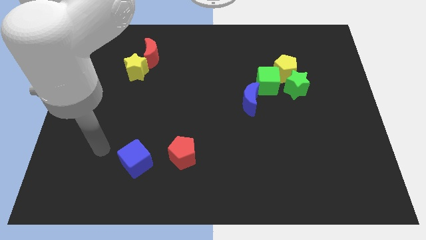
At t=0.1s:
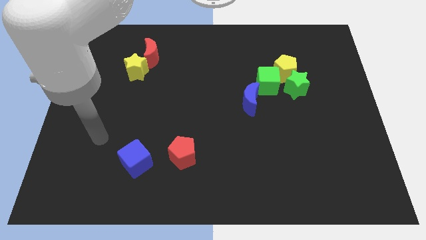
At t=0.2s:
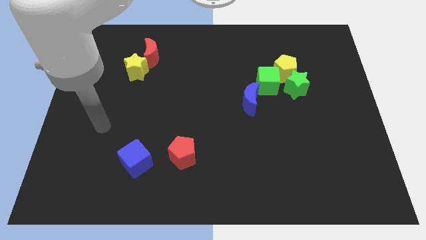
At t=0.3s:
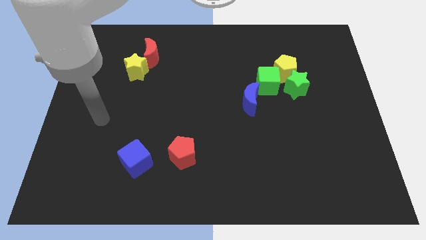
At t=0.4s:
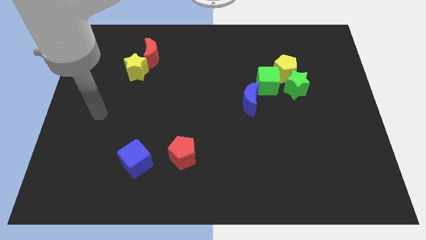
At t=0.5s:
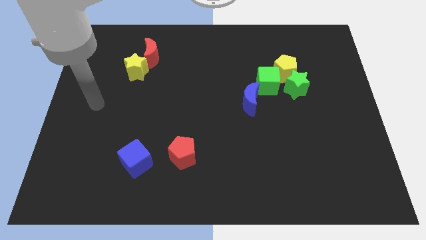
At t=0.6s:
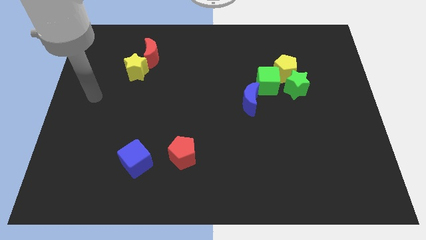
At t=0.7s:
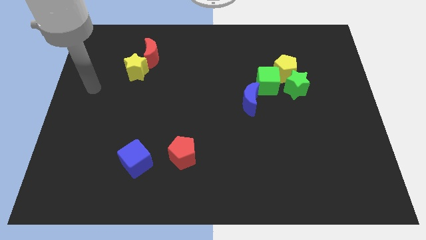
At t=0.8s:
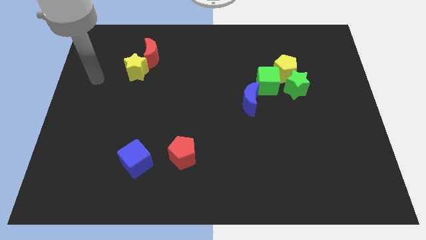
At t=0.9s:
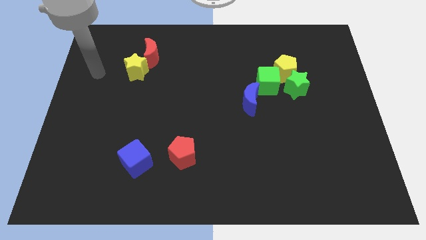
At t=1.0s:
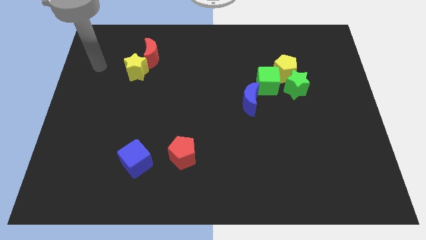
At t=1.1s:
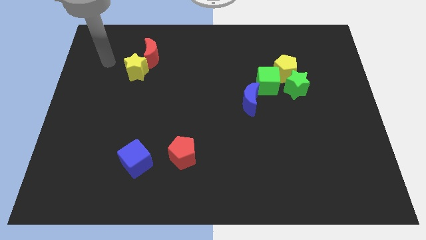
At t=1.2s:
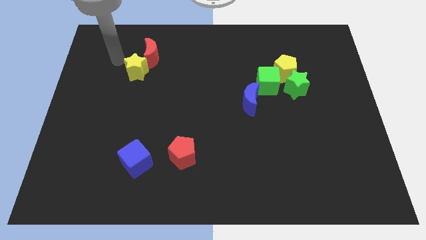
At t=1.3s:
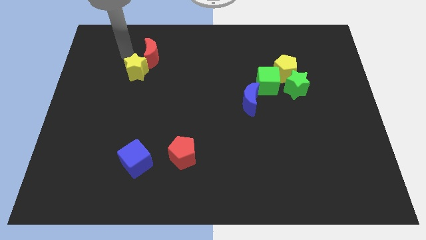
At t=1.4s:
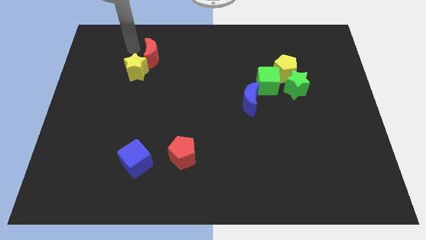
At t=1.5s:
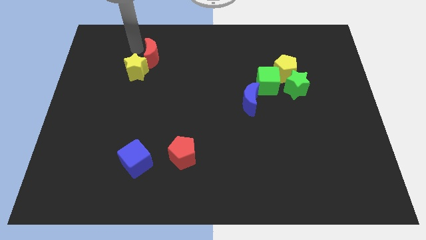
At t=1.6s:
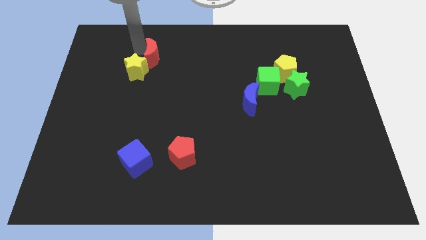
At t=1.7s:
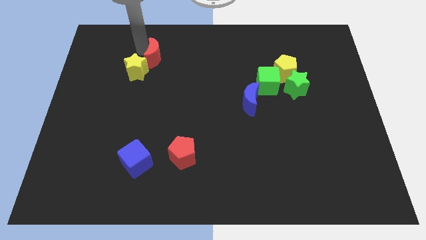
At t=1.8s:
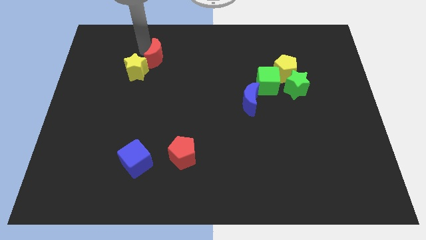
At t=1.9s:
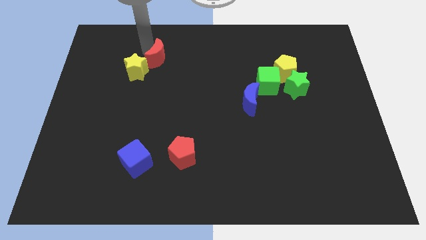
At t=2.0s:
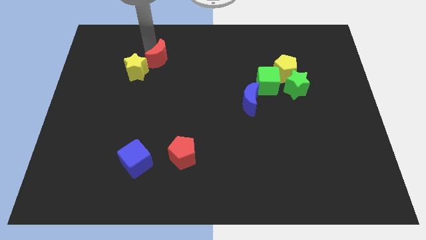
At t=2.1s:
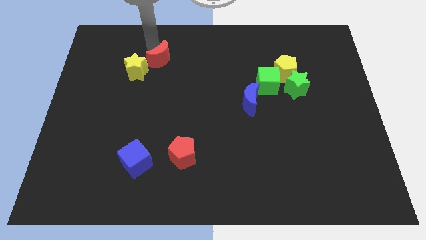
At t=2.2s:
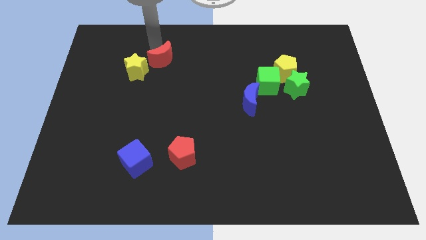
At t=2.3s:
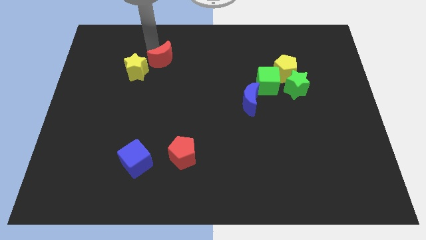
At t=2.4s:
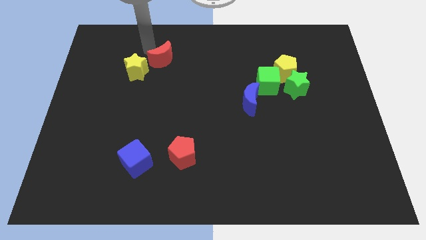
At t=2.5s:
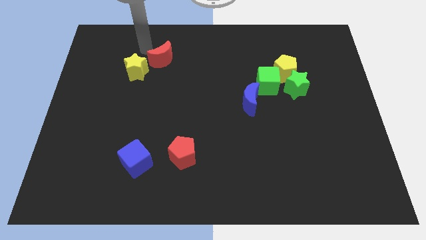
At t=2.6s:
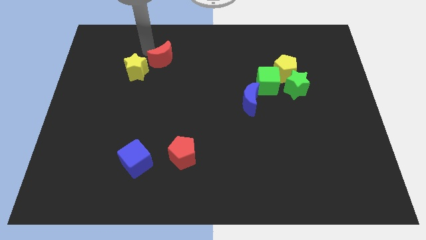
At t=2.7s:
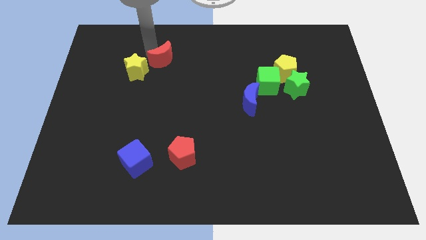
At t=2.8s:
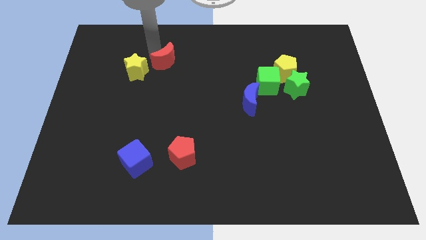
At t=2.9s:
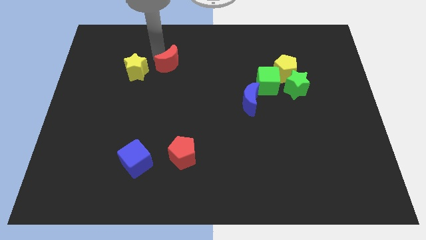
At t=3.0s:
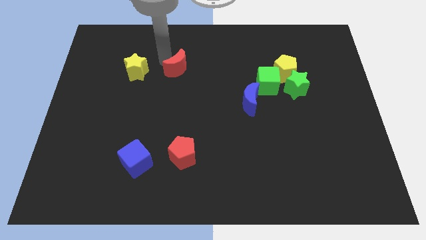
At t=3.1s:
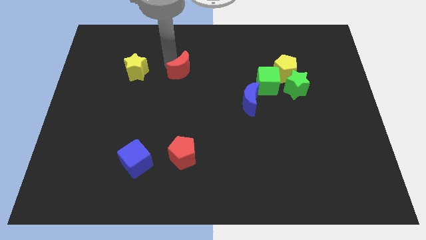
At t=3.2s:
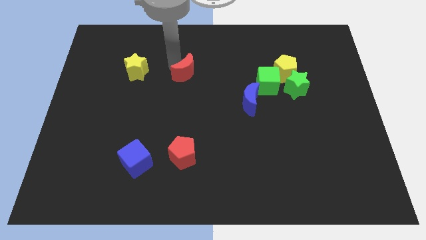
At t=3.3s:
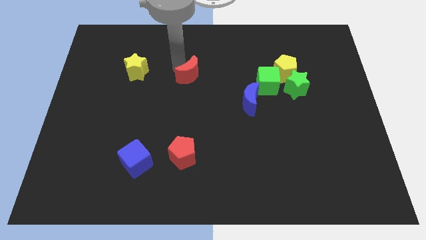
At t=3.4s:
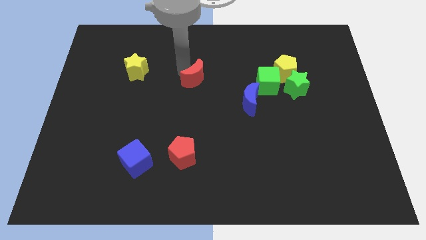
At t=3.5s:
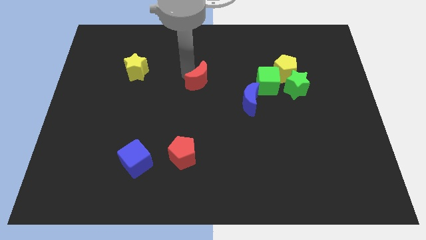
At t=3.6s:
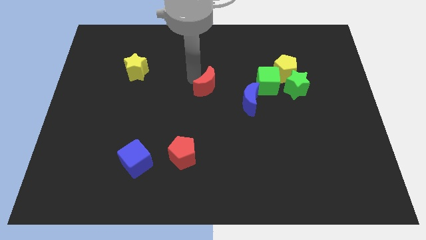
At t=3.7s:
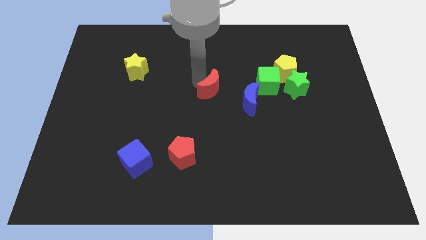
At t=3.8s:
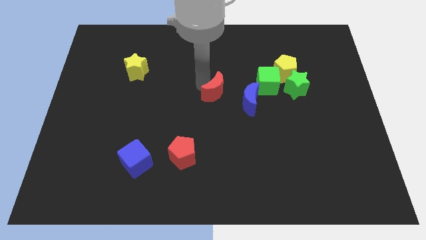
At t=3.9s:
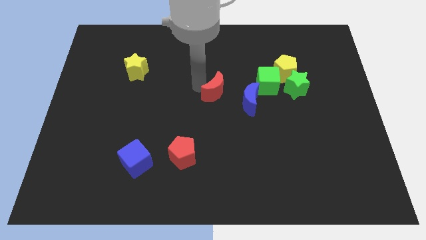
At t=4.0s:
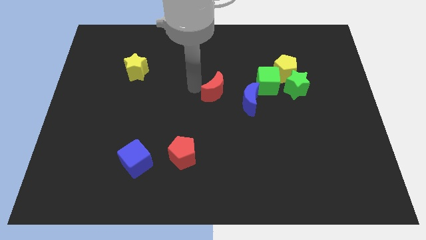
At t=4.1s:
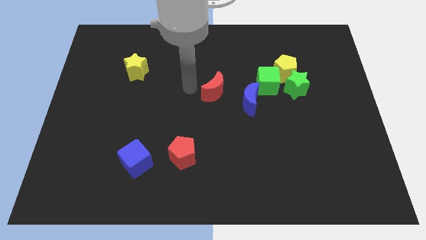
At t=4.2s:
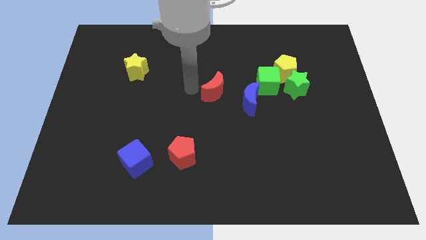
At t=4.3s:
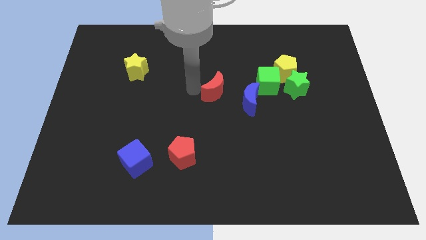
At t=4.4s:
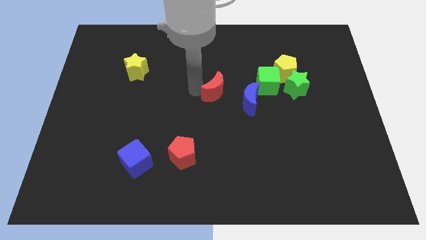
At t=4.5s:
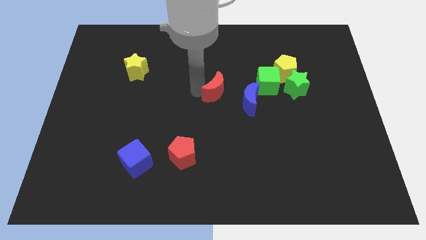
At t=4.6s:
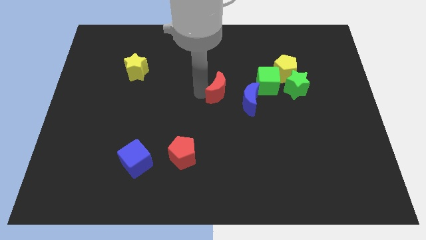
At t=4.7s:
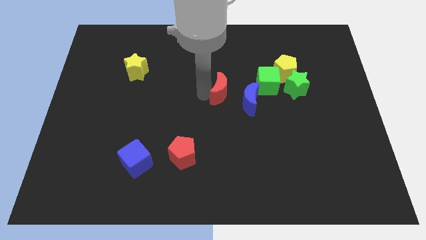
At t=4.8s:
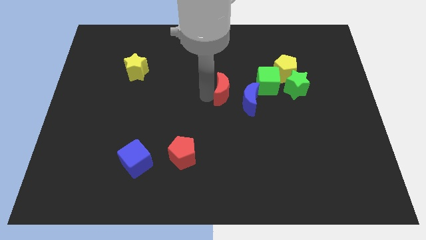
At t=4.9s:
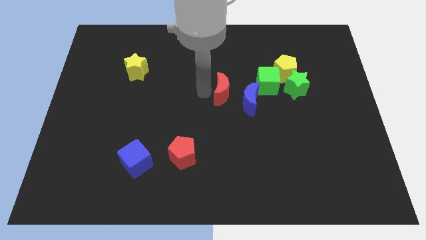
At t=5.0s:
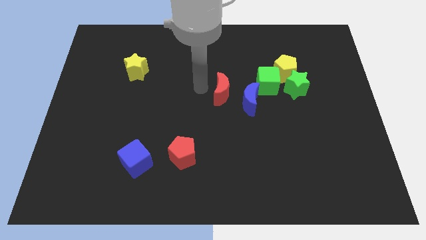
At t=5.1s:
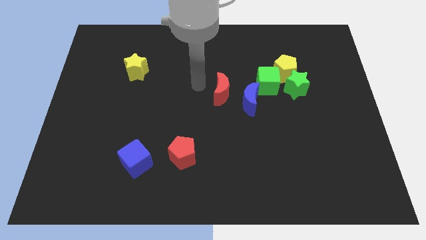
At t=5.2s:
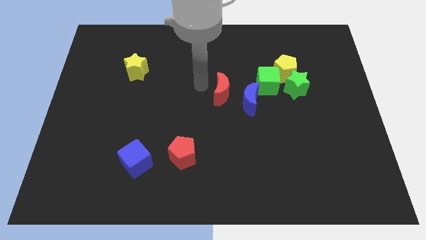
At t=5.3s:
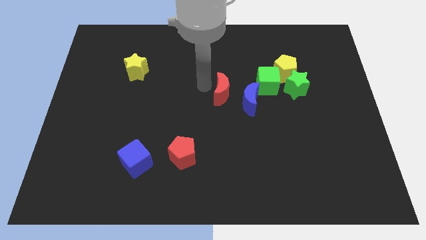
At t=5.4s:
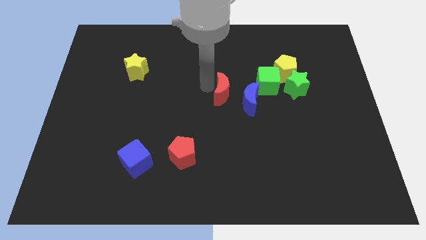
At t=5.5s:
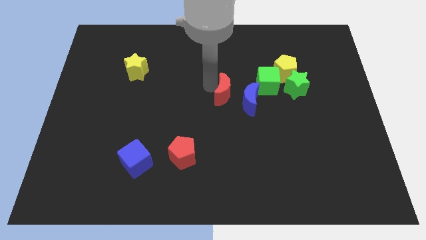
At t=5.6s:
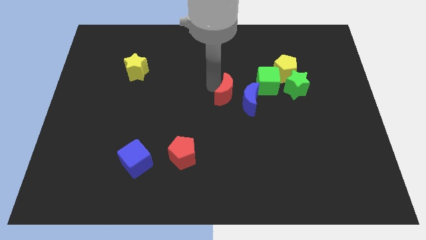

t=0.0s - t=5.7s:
move the red moon to the blue moon
